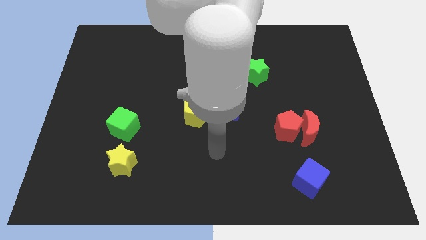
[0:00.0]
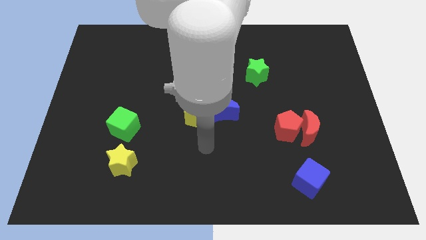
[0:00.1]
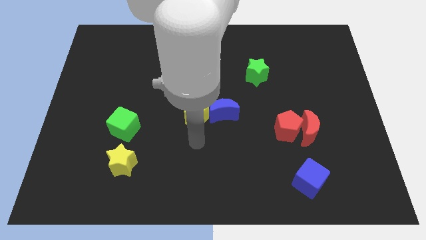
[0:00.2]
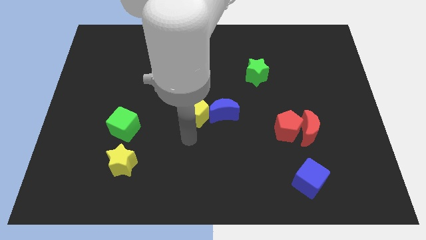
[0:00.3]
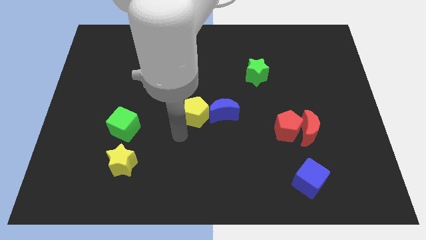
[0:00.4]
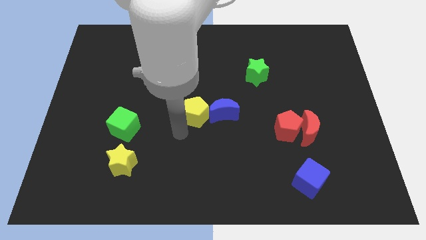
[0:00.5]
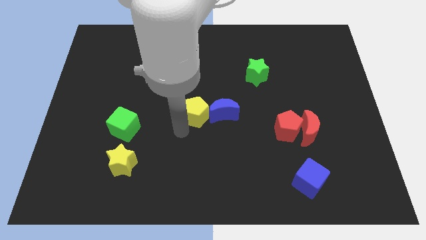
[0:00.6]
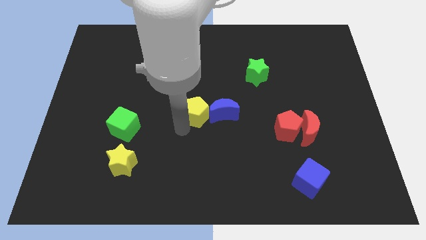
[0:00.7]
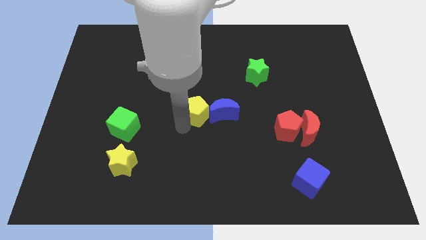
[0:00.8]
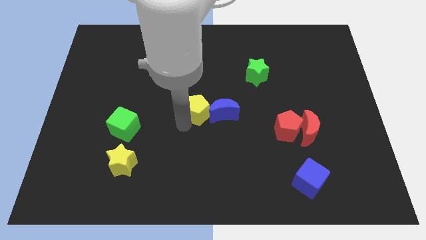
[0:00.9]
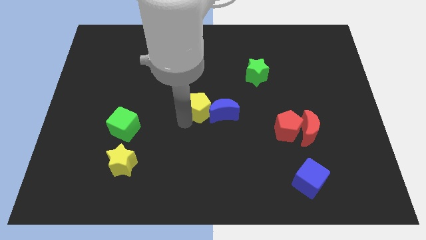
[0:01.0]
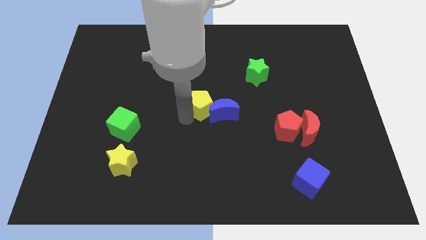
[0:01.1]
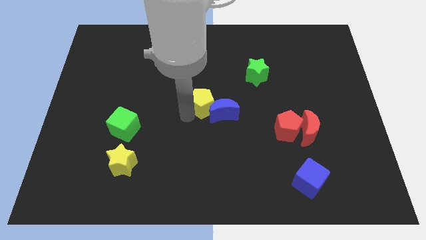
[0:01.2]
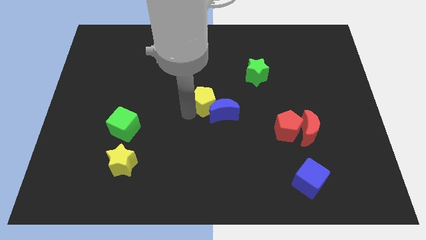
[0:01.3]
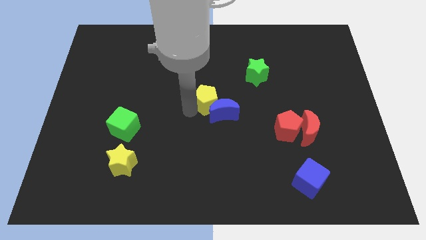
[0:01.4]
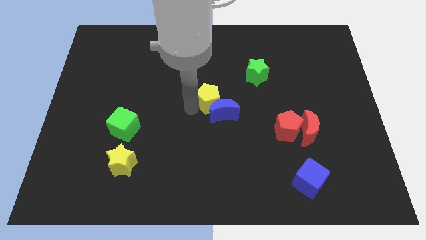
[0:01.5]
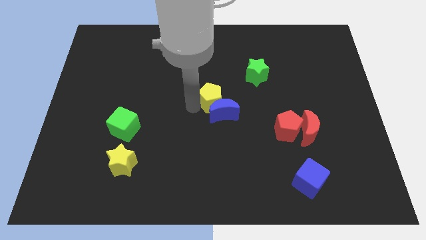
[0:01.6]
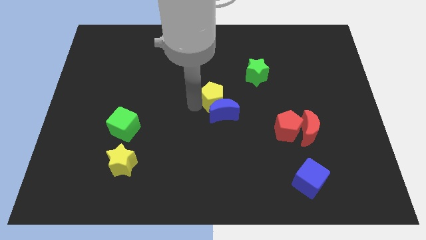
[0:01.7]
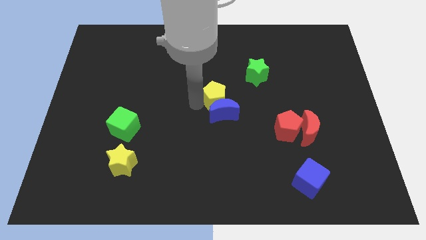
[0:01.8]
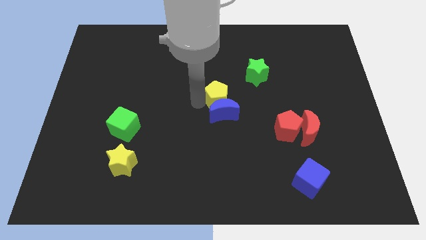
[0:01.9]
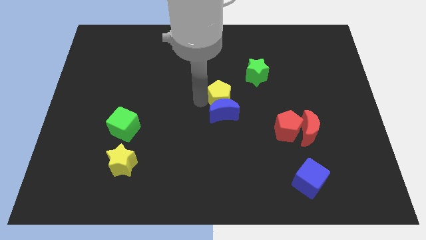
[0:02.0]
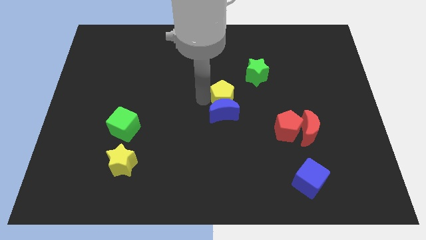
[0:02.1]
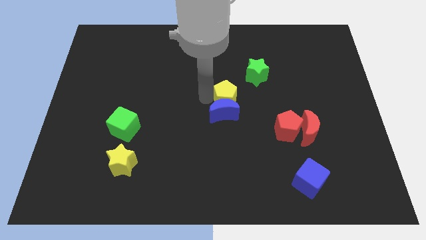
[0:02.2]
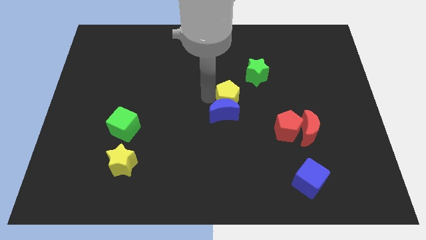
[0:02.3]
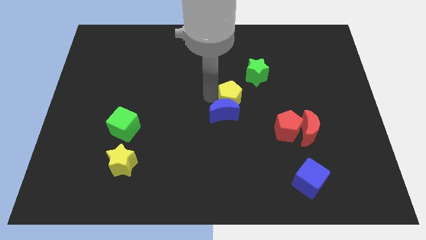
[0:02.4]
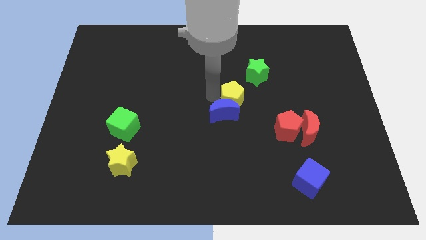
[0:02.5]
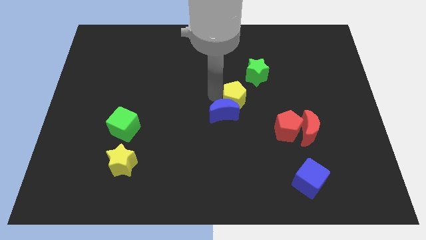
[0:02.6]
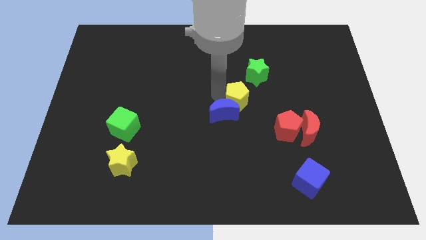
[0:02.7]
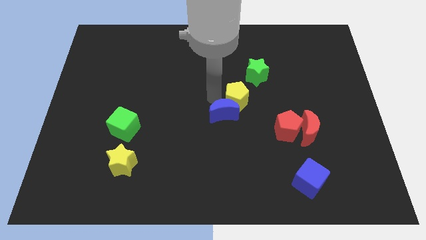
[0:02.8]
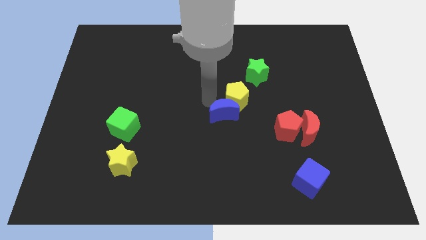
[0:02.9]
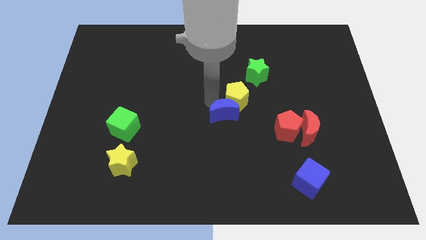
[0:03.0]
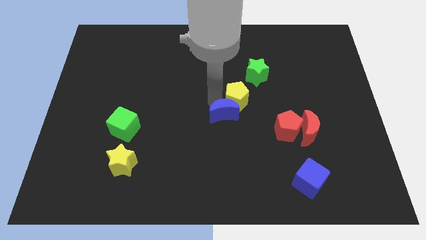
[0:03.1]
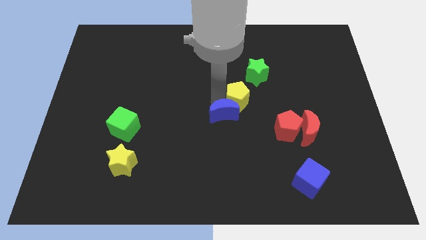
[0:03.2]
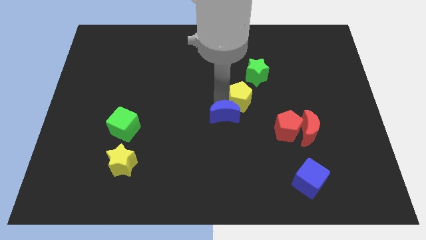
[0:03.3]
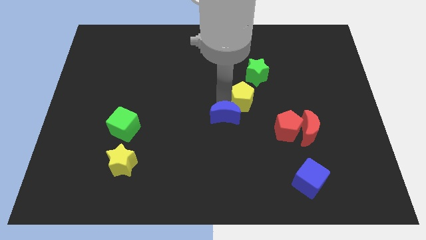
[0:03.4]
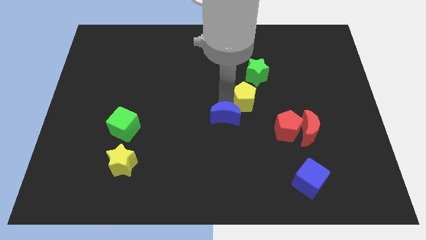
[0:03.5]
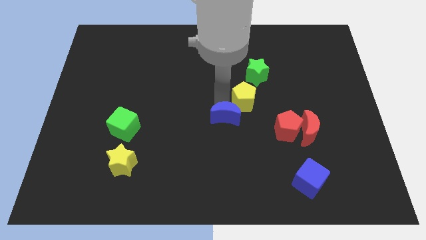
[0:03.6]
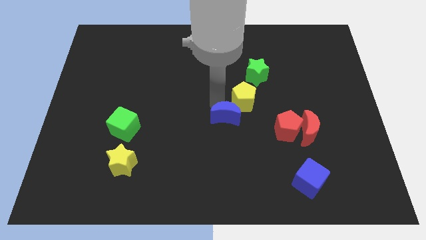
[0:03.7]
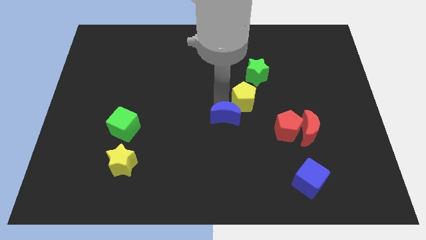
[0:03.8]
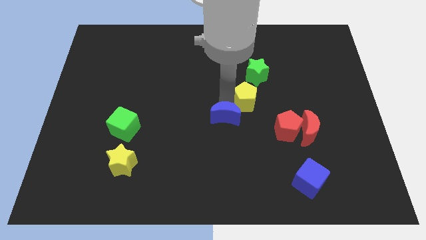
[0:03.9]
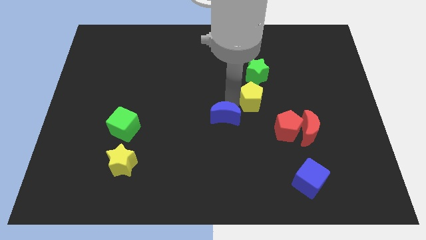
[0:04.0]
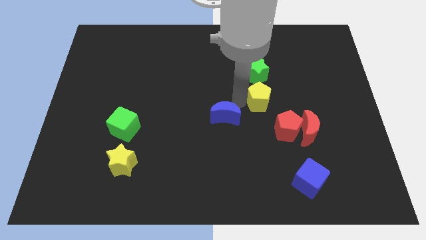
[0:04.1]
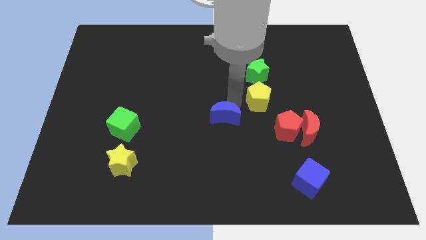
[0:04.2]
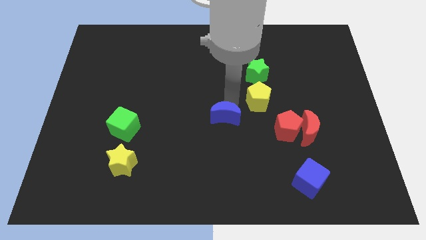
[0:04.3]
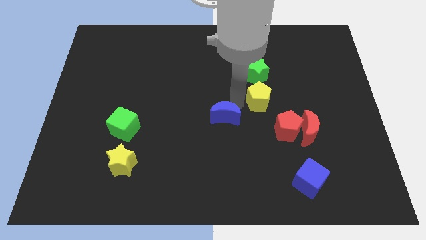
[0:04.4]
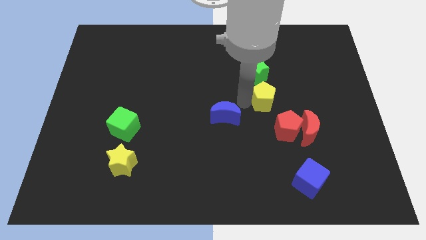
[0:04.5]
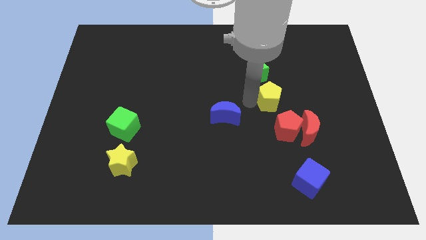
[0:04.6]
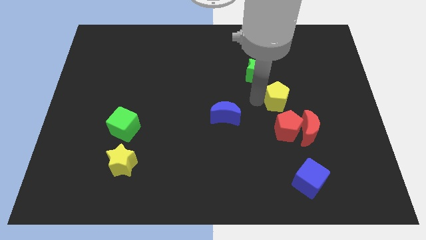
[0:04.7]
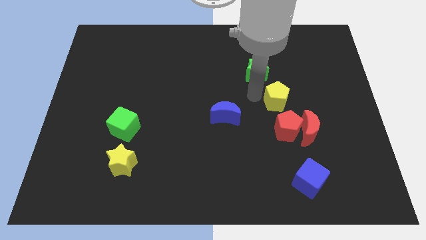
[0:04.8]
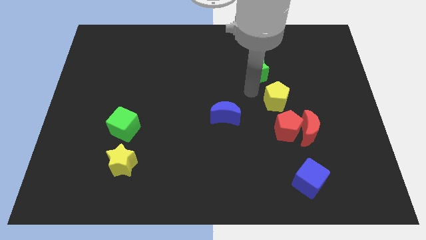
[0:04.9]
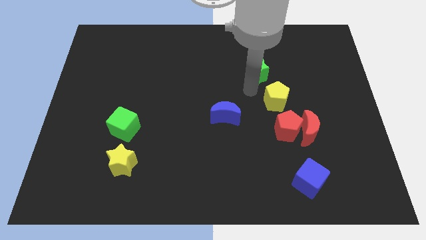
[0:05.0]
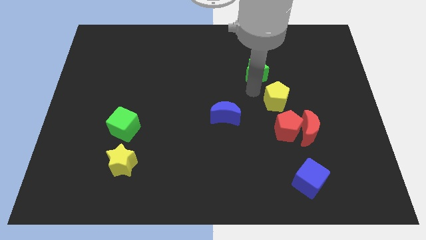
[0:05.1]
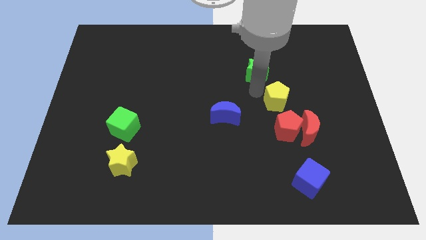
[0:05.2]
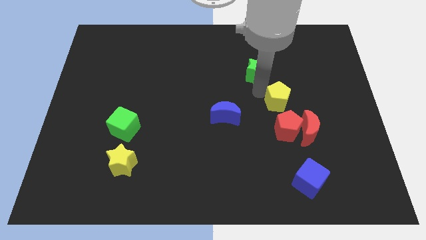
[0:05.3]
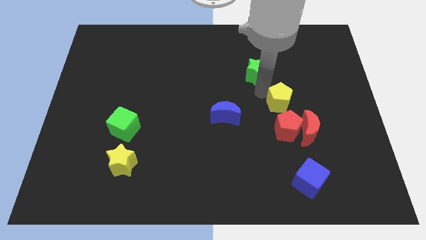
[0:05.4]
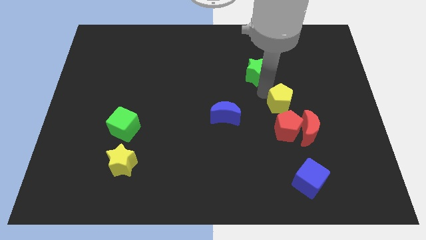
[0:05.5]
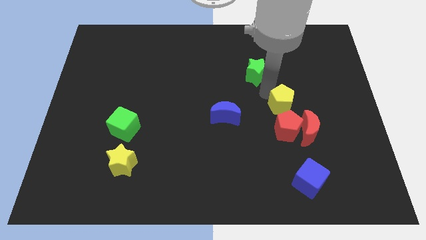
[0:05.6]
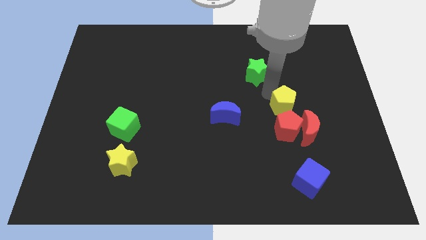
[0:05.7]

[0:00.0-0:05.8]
push the yellow pentagon to the right

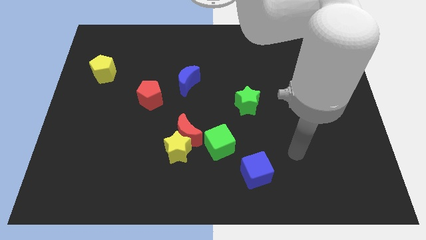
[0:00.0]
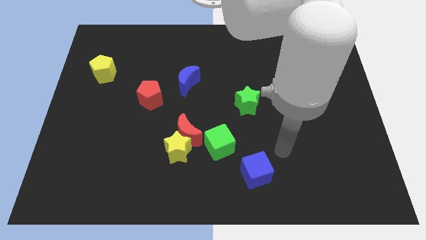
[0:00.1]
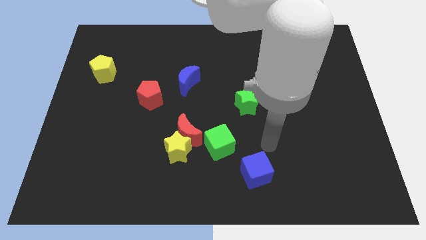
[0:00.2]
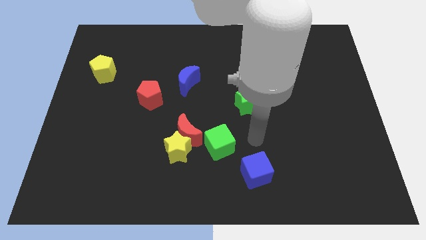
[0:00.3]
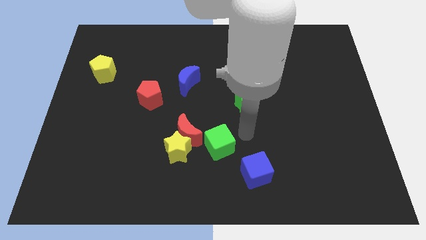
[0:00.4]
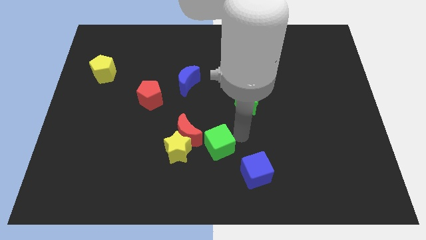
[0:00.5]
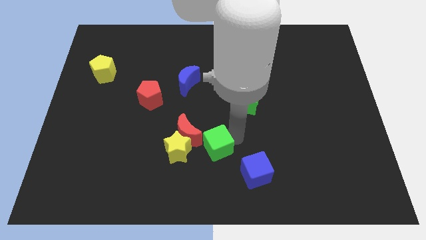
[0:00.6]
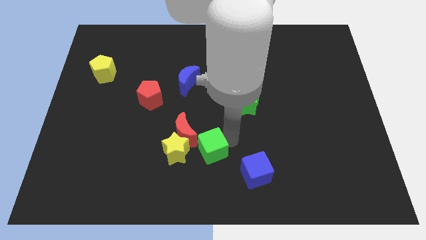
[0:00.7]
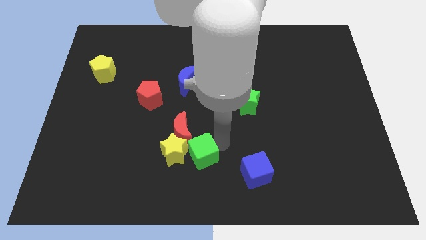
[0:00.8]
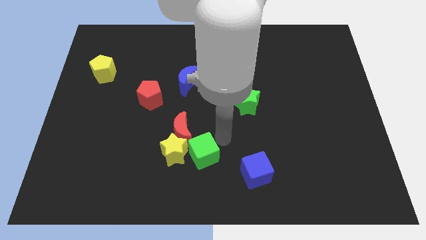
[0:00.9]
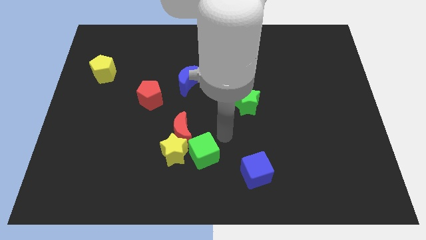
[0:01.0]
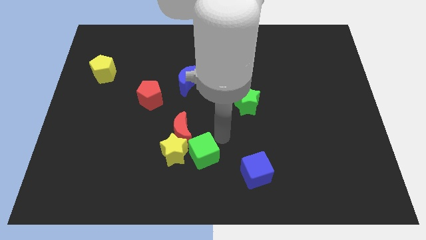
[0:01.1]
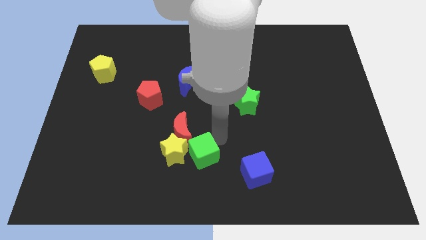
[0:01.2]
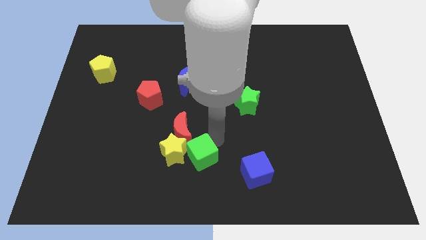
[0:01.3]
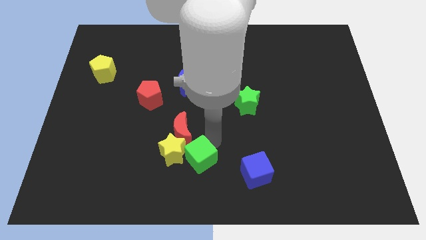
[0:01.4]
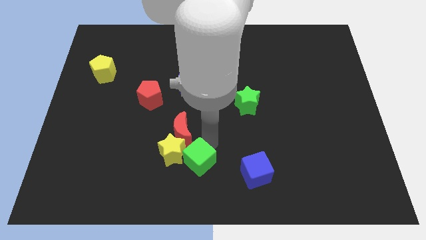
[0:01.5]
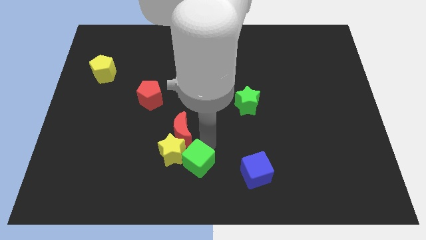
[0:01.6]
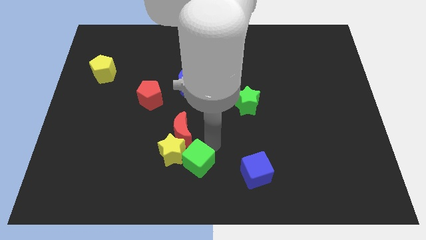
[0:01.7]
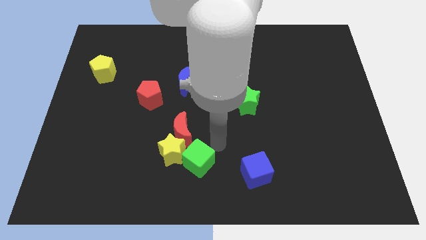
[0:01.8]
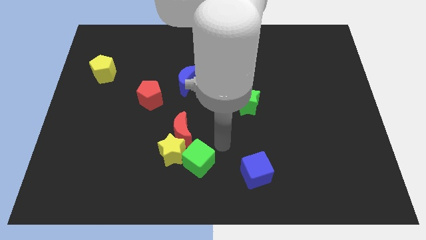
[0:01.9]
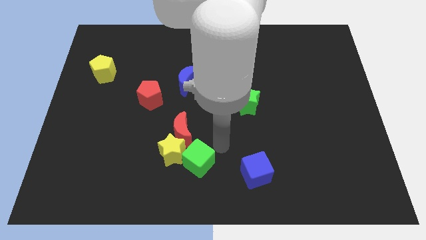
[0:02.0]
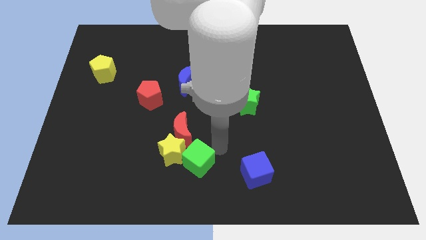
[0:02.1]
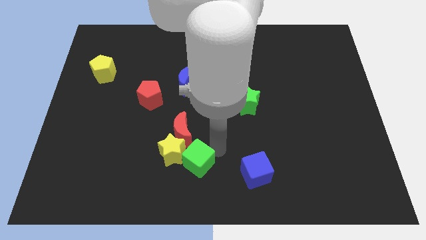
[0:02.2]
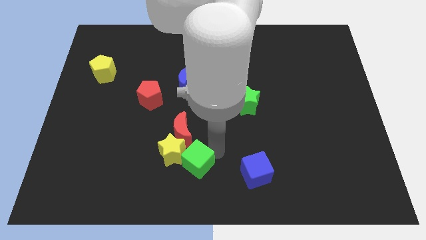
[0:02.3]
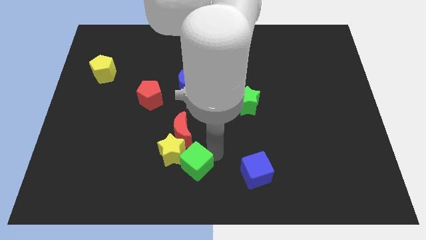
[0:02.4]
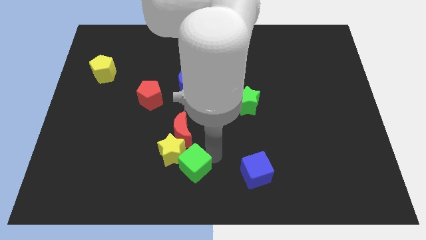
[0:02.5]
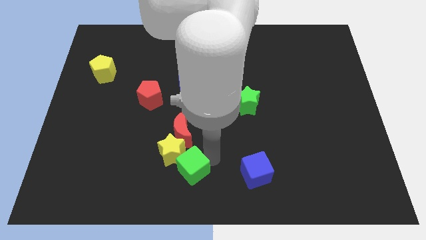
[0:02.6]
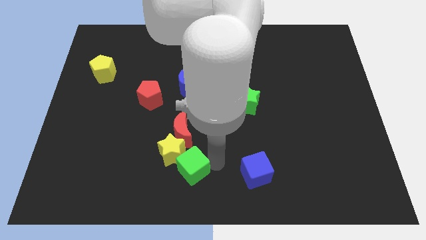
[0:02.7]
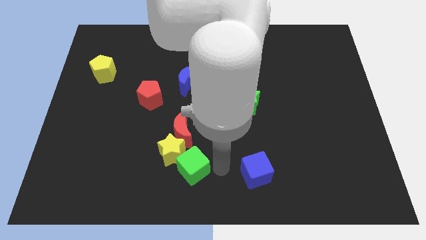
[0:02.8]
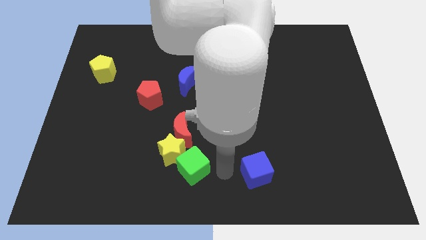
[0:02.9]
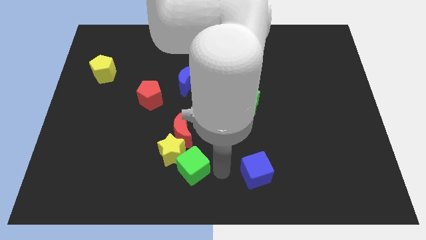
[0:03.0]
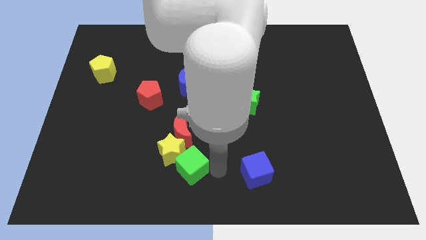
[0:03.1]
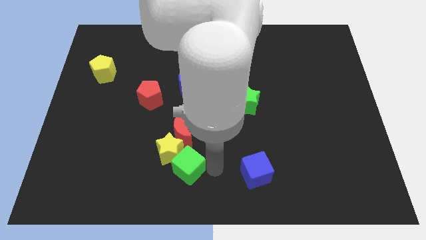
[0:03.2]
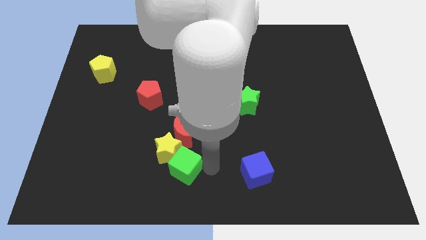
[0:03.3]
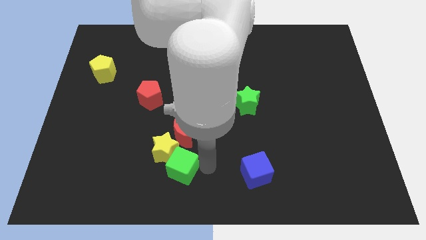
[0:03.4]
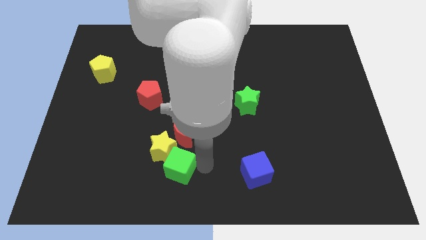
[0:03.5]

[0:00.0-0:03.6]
move the green cube a little bit left
